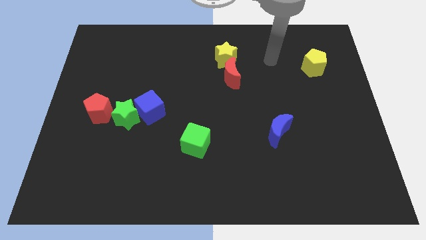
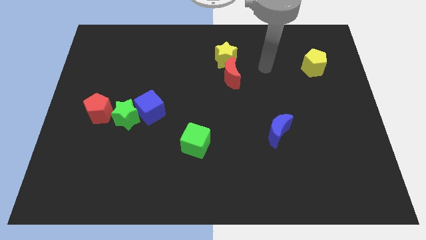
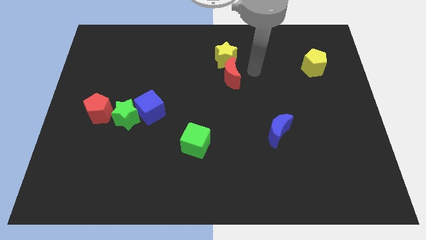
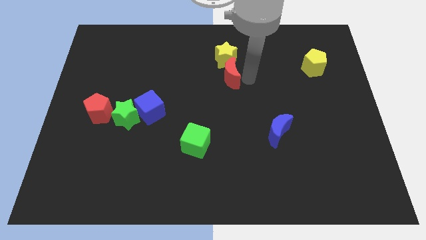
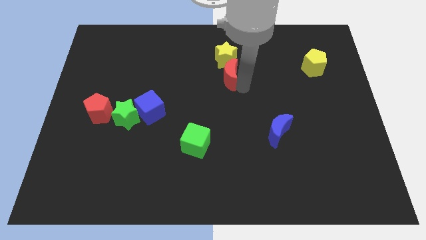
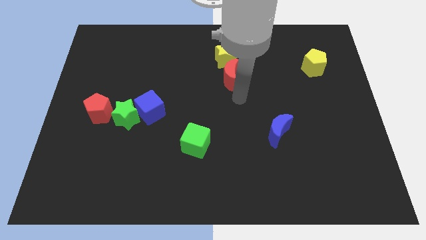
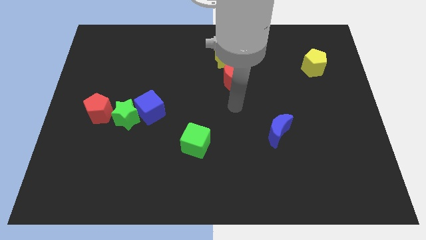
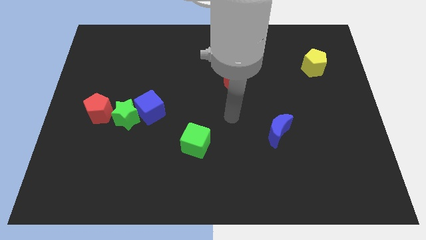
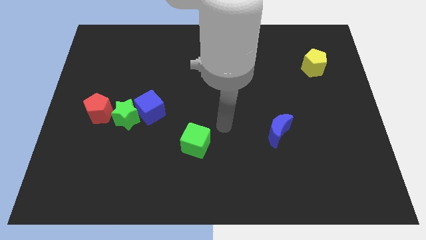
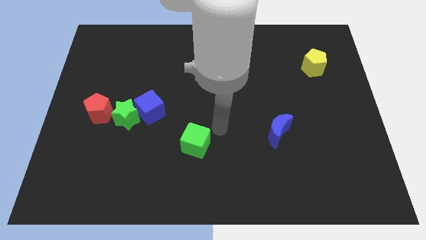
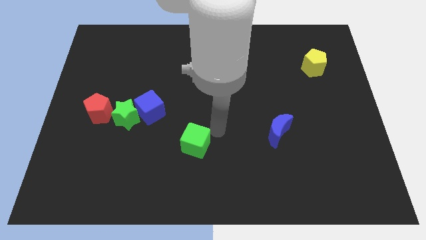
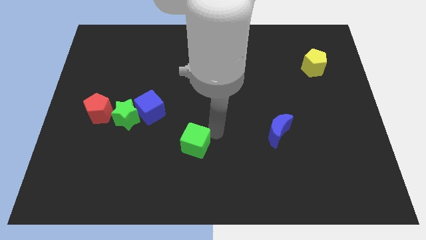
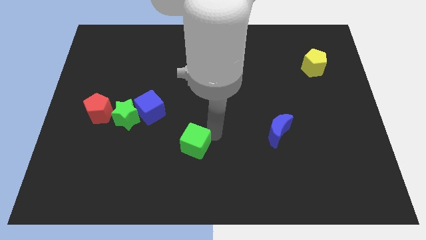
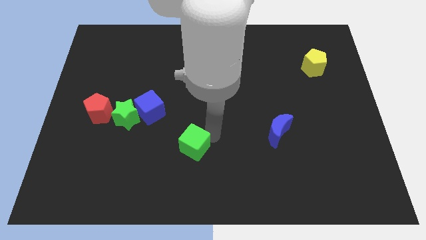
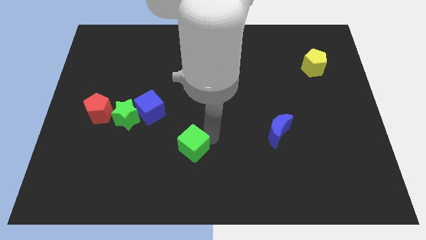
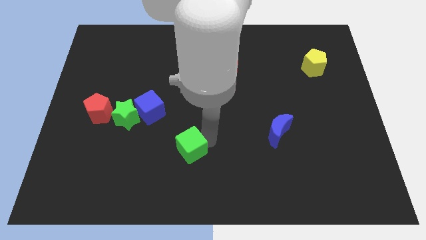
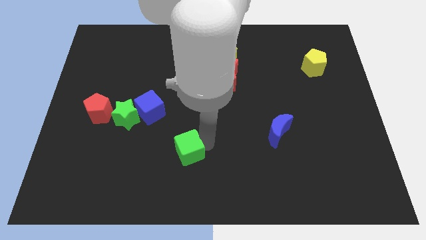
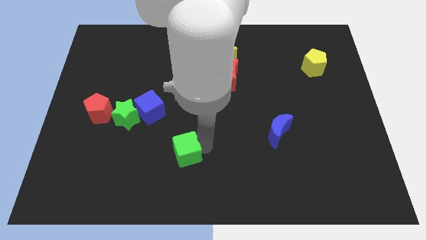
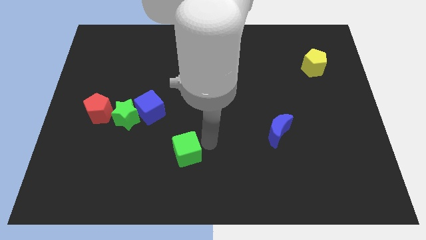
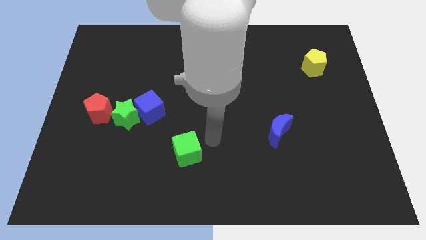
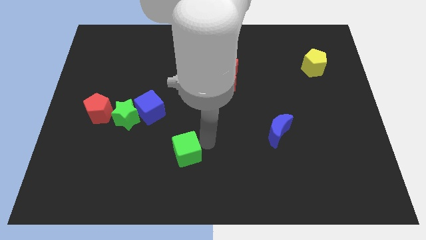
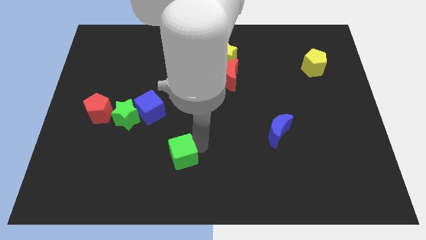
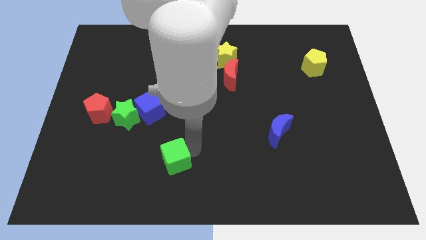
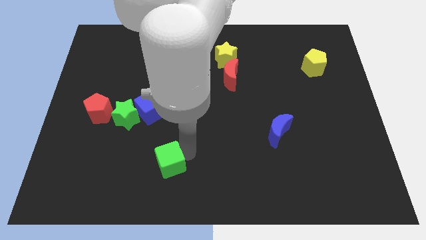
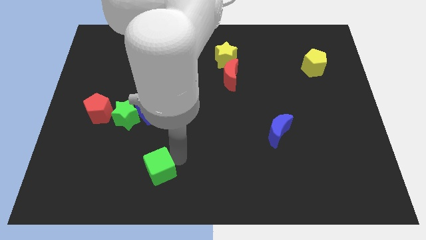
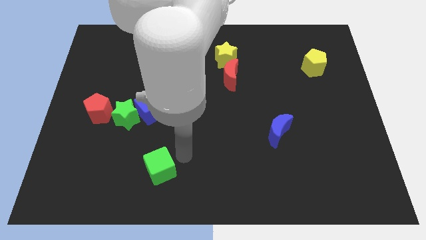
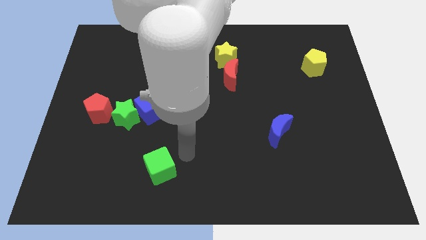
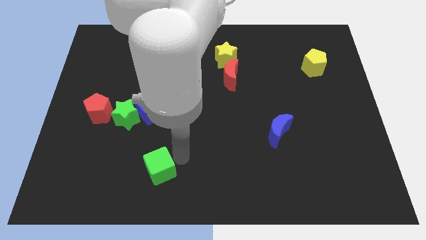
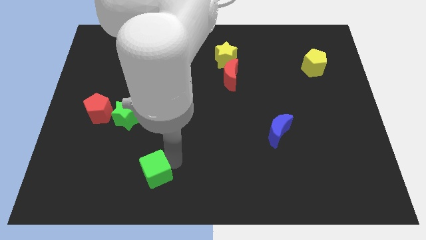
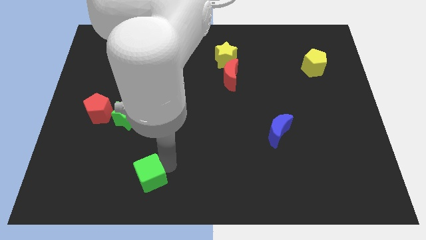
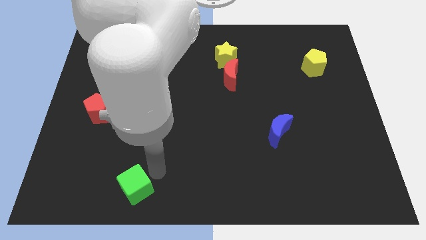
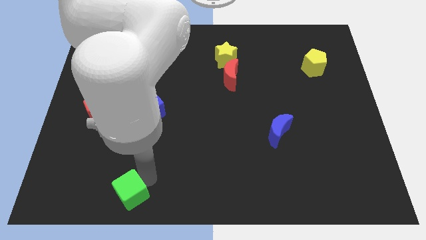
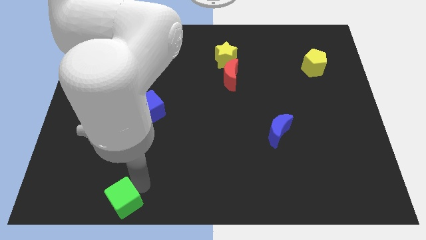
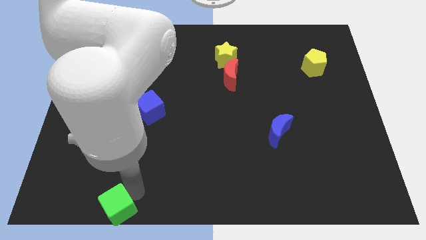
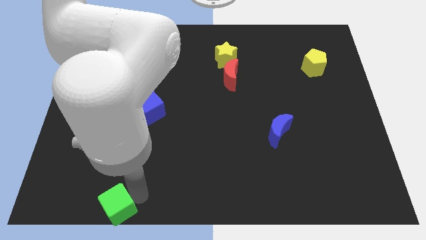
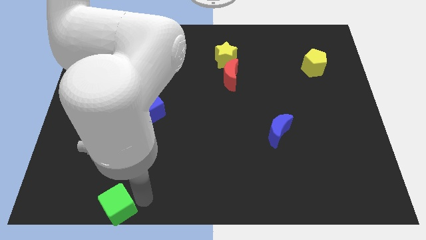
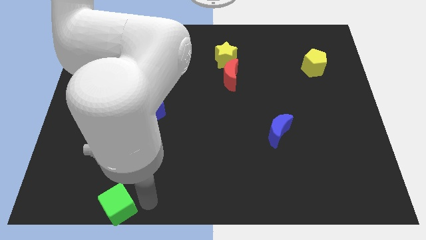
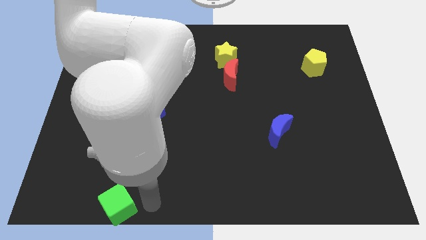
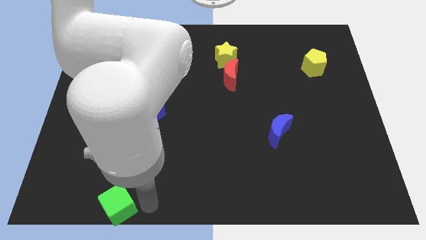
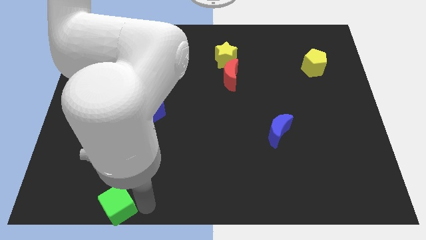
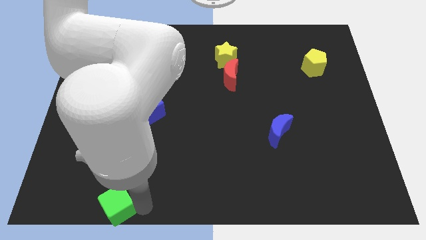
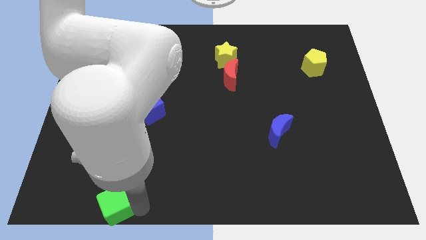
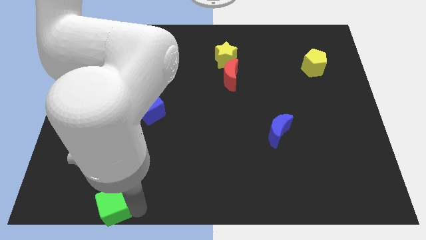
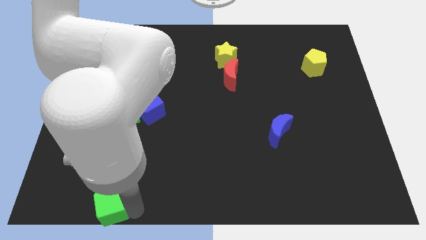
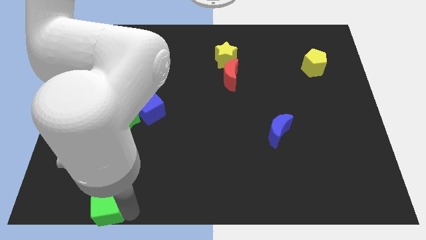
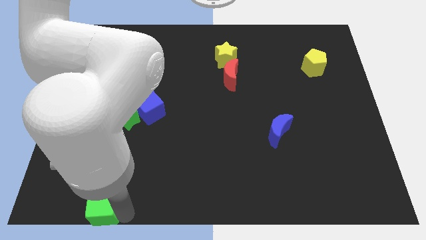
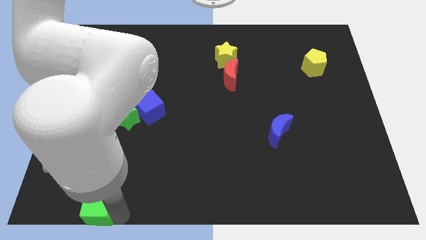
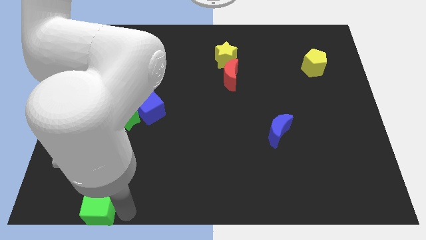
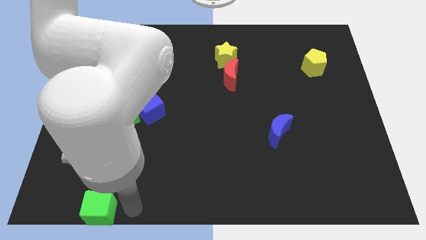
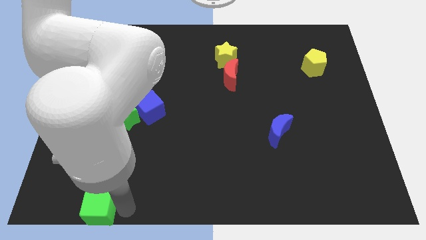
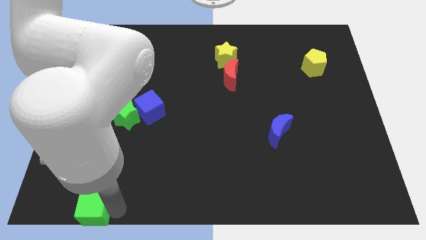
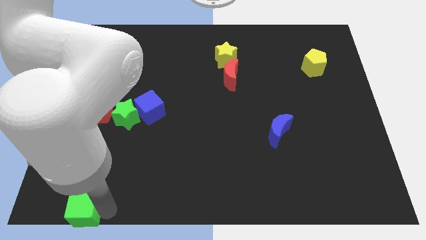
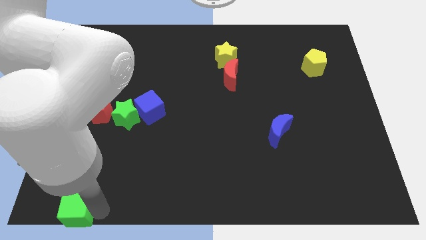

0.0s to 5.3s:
move the green cube to the lower left corner

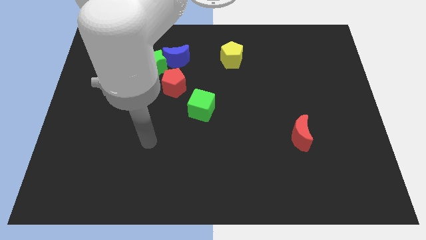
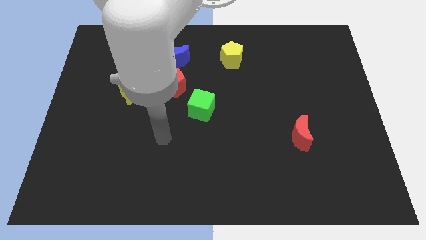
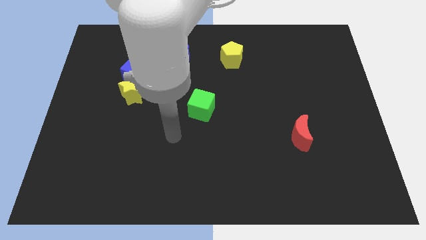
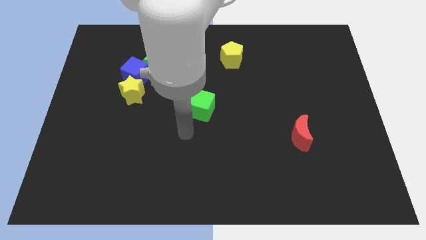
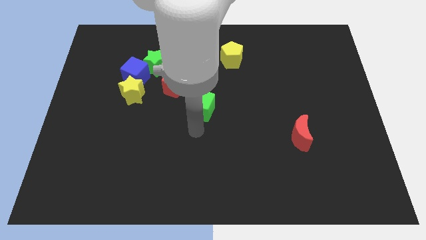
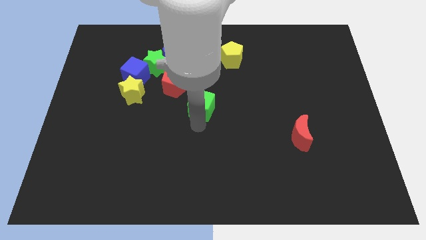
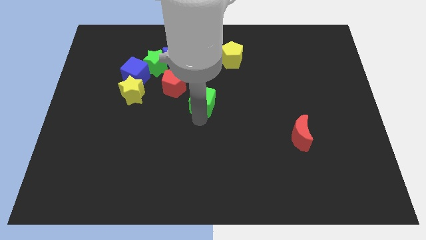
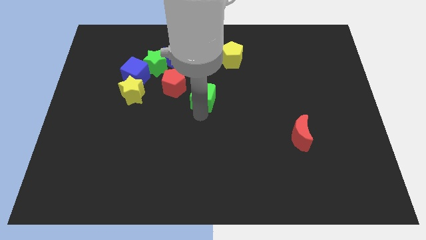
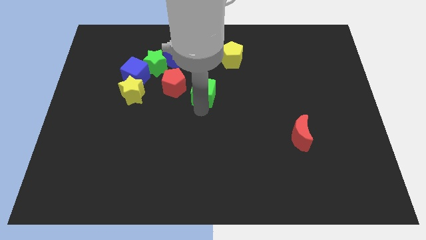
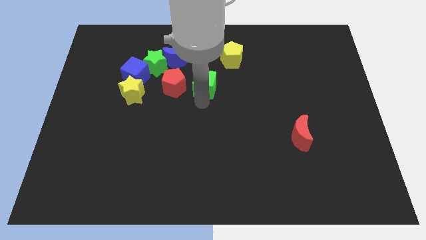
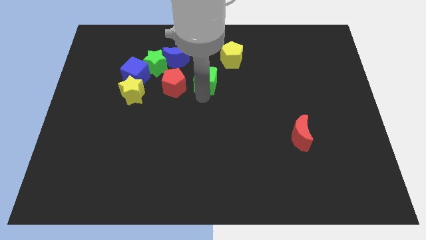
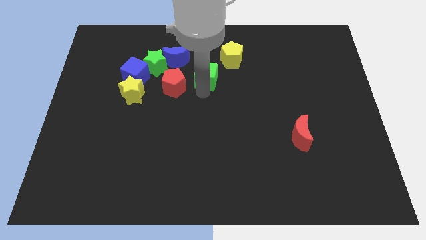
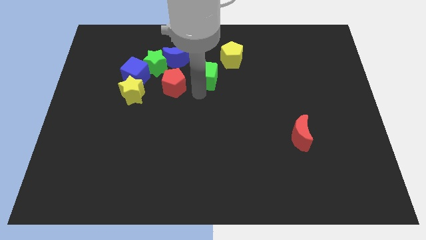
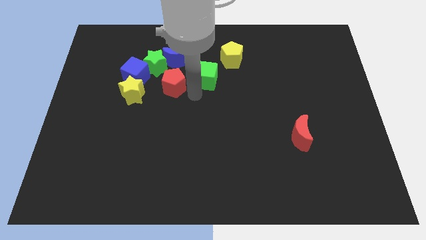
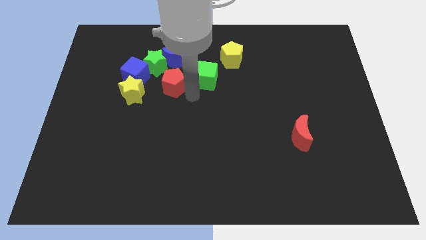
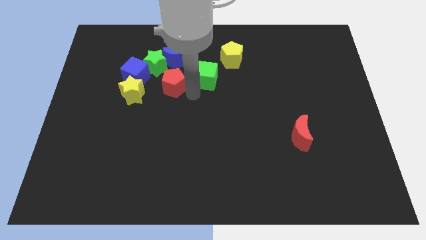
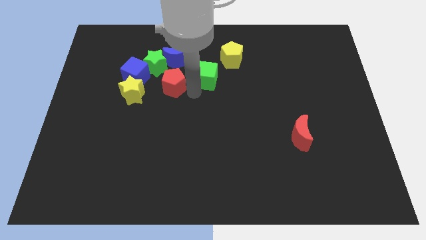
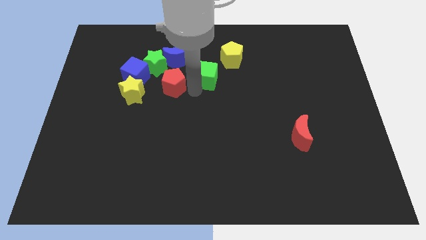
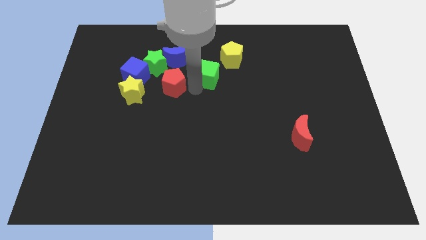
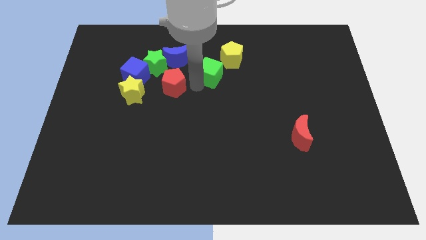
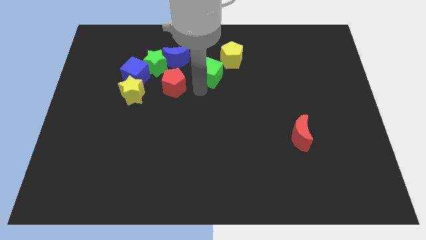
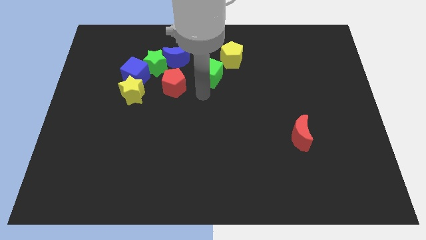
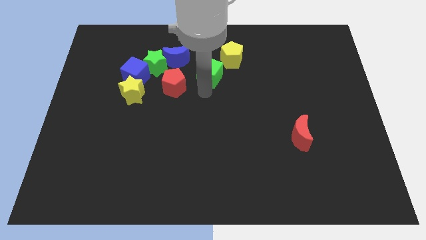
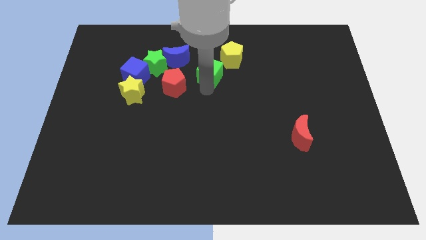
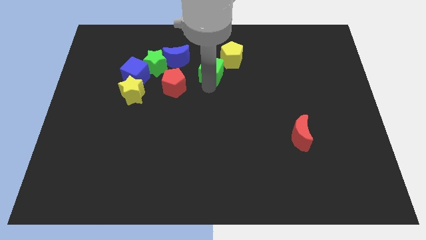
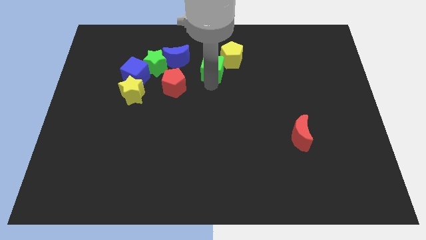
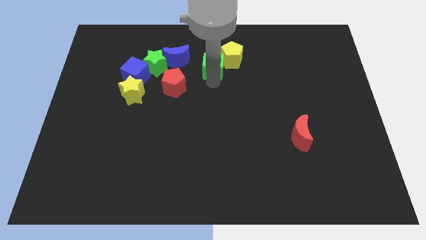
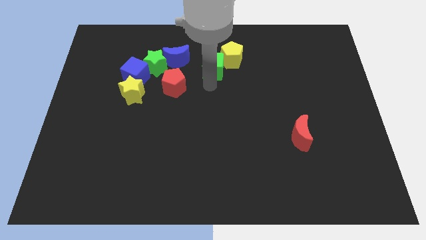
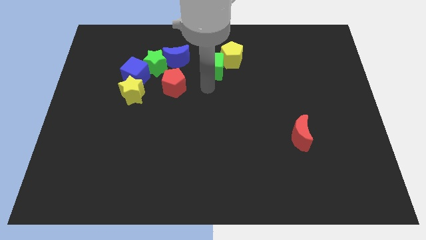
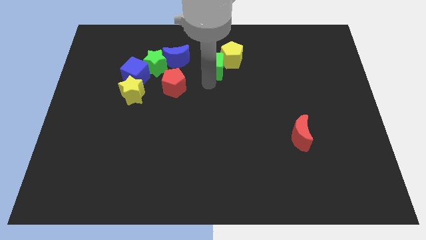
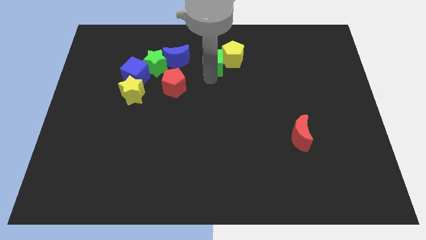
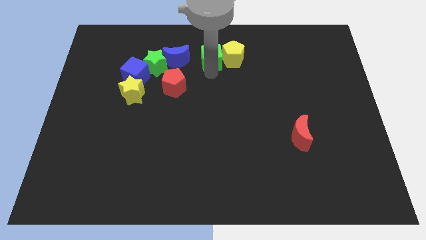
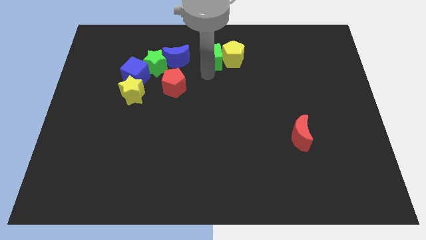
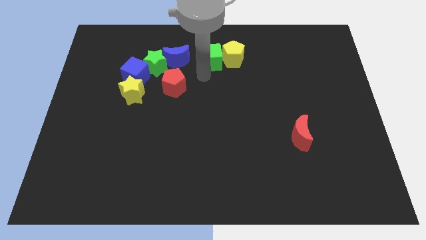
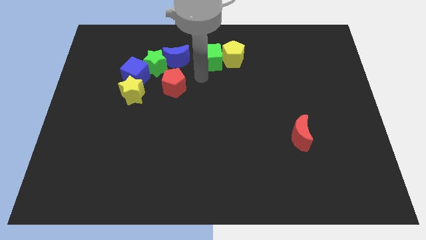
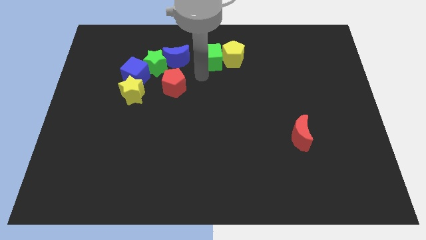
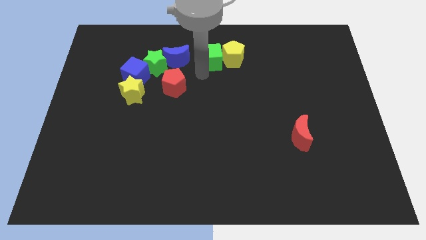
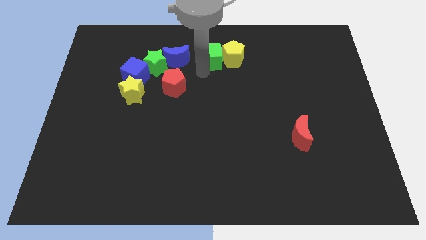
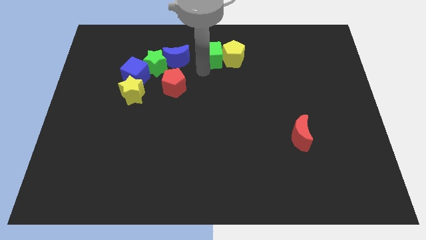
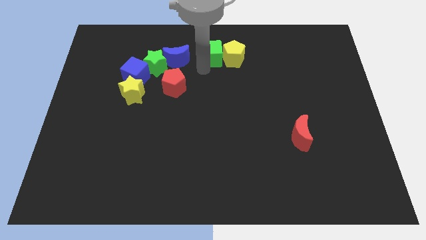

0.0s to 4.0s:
put the green cube to the top
